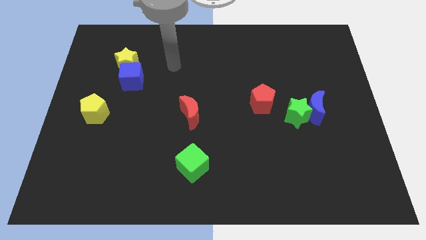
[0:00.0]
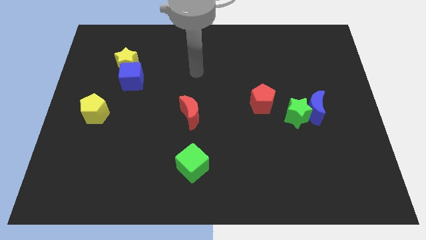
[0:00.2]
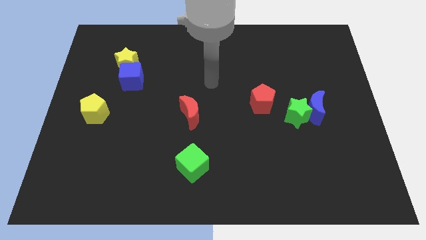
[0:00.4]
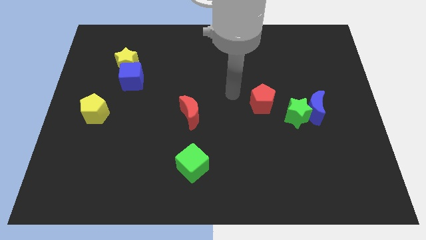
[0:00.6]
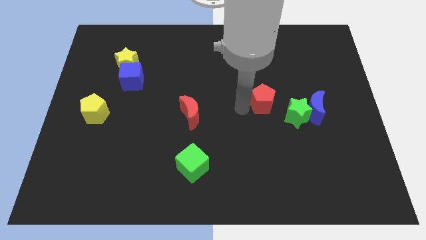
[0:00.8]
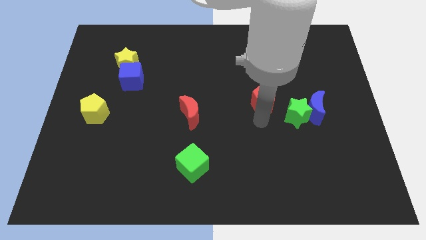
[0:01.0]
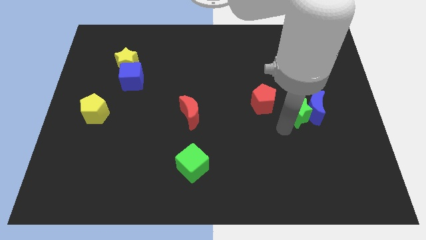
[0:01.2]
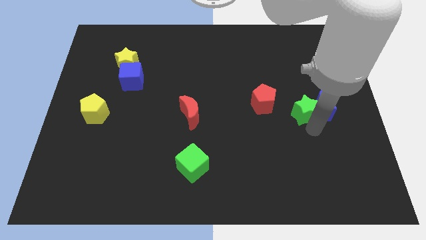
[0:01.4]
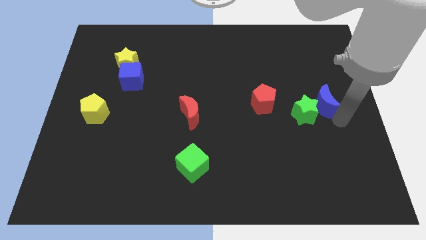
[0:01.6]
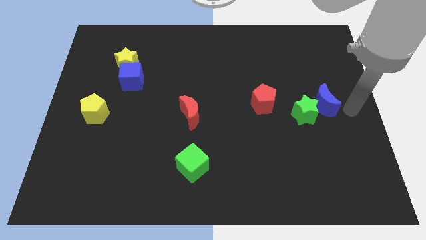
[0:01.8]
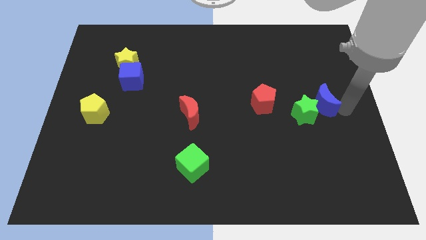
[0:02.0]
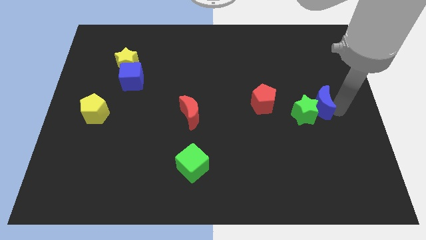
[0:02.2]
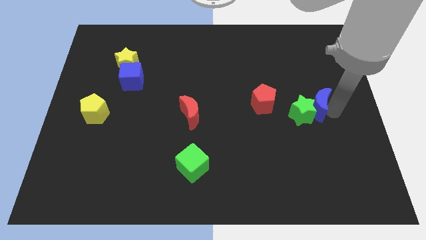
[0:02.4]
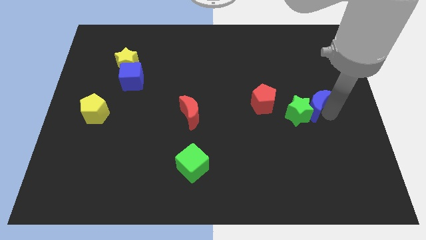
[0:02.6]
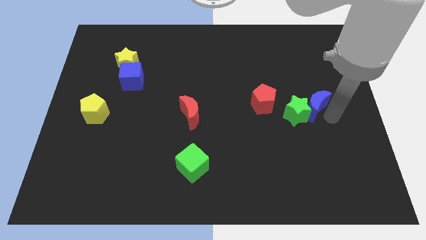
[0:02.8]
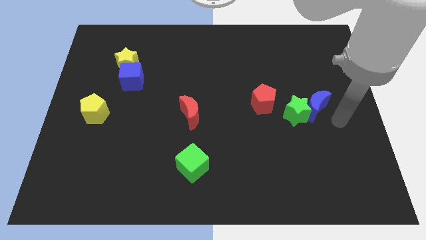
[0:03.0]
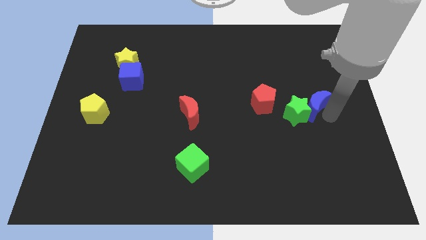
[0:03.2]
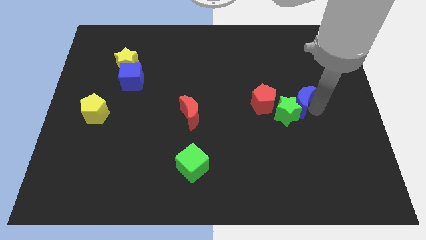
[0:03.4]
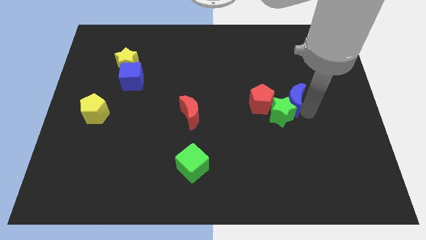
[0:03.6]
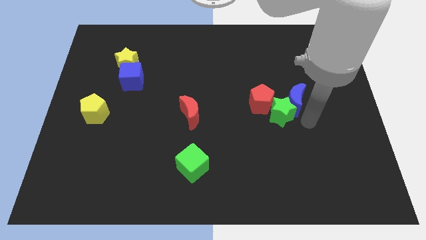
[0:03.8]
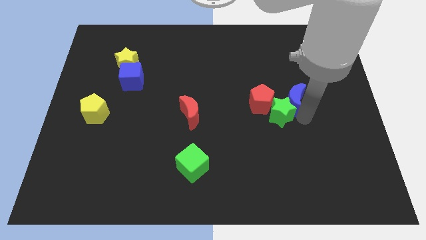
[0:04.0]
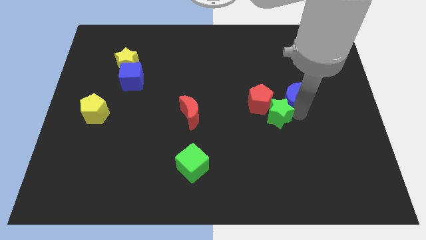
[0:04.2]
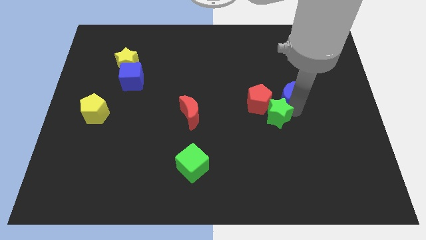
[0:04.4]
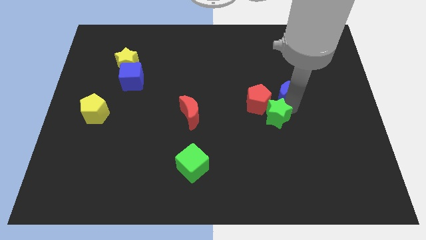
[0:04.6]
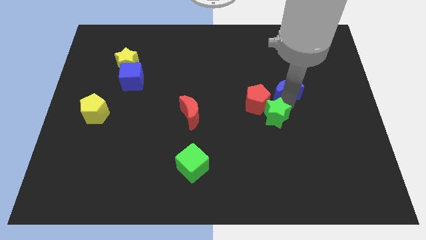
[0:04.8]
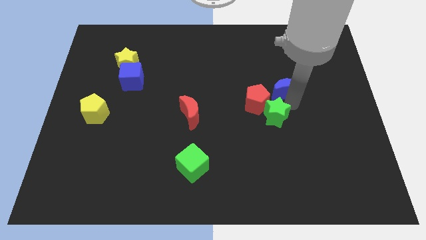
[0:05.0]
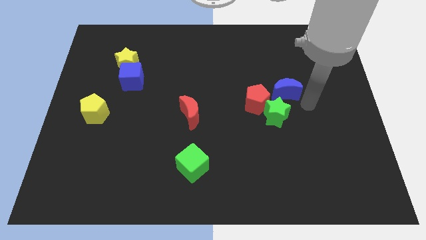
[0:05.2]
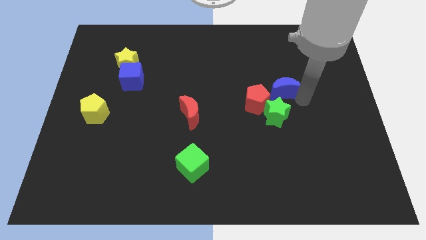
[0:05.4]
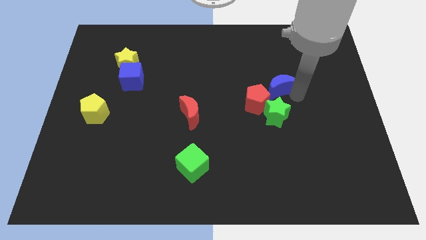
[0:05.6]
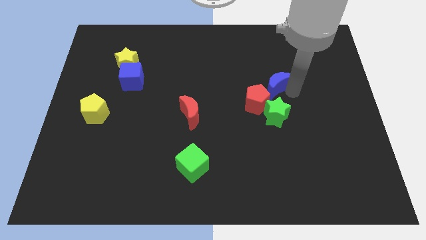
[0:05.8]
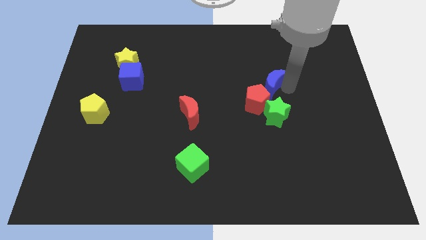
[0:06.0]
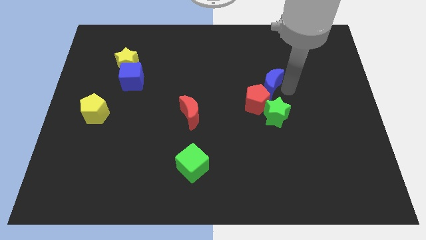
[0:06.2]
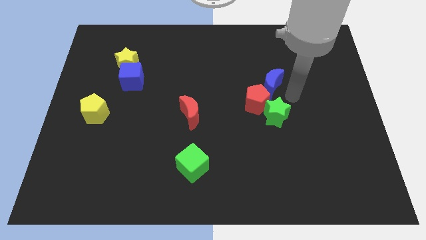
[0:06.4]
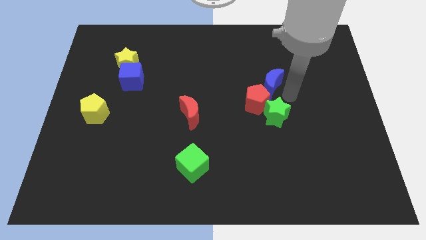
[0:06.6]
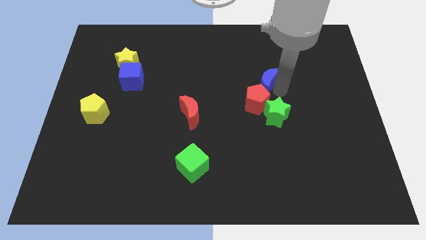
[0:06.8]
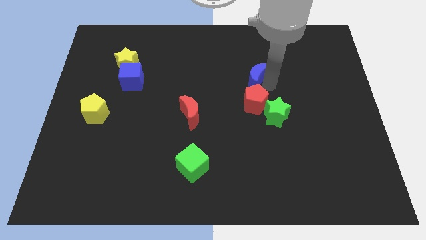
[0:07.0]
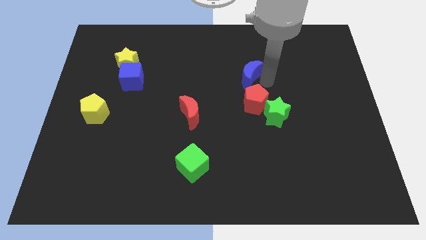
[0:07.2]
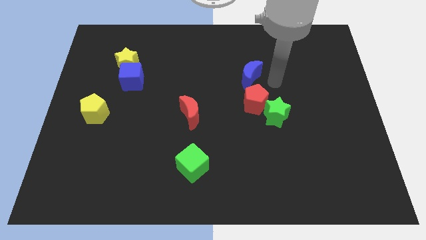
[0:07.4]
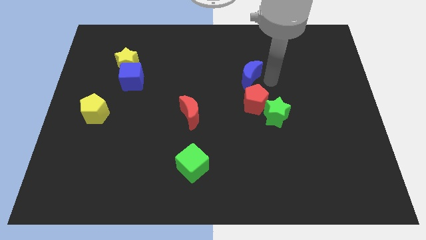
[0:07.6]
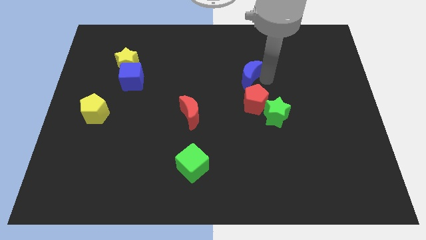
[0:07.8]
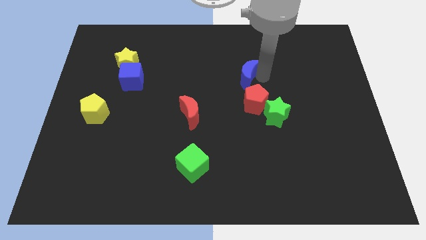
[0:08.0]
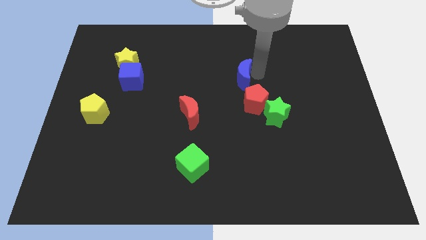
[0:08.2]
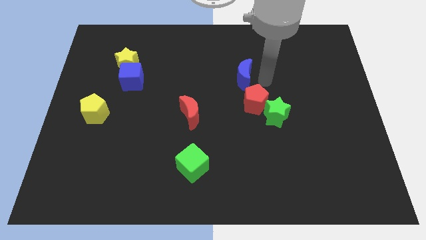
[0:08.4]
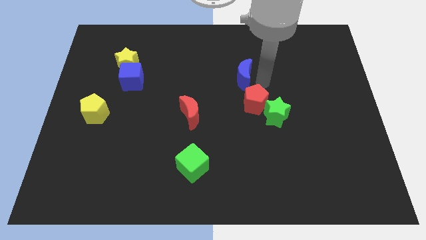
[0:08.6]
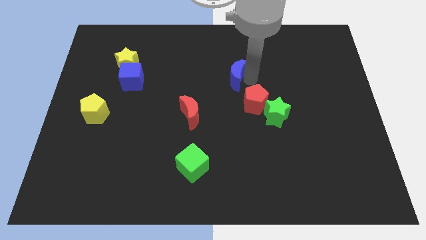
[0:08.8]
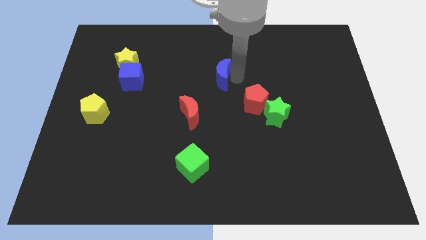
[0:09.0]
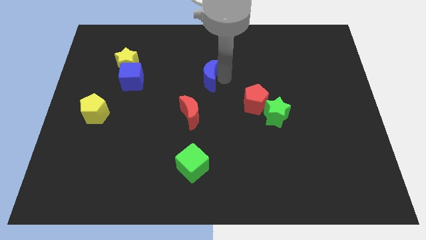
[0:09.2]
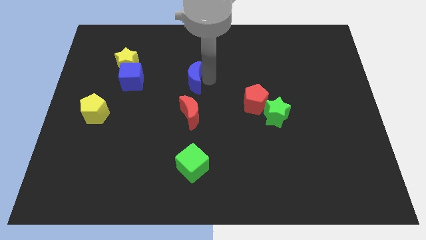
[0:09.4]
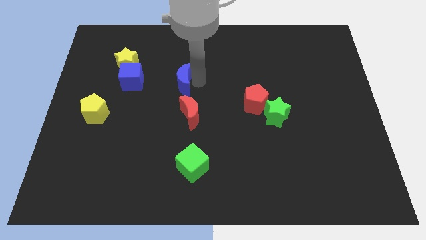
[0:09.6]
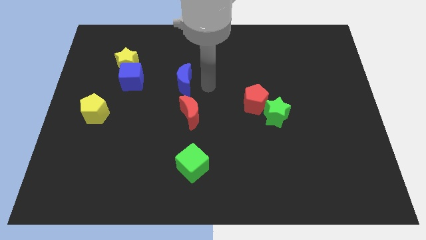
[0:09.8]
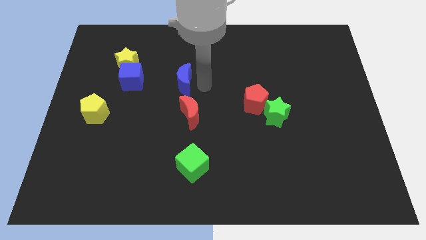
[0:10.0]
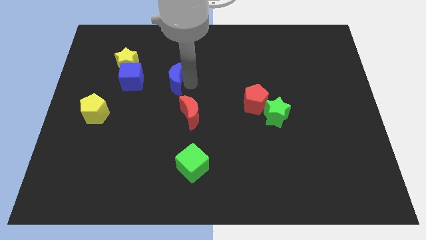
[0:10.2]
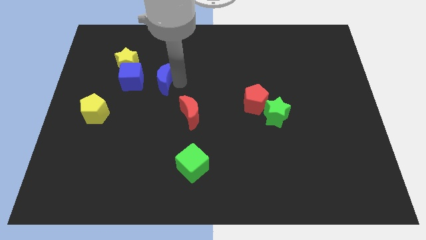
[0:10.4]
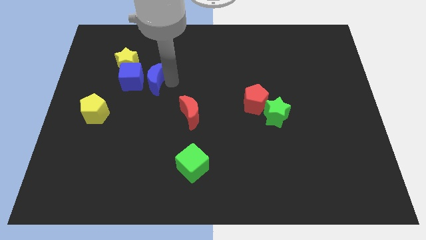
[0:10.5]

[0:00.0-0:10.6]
push the blue moon towards the blue cube

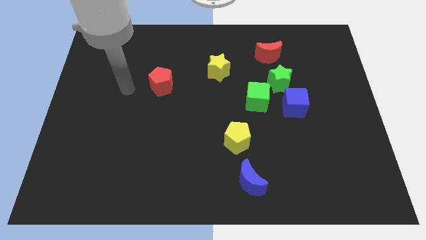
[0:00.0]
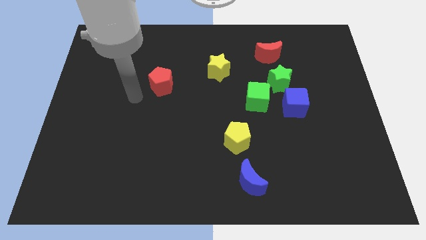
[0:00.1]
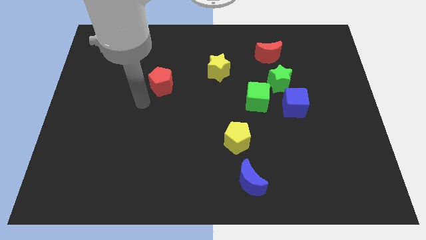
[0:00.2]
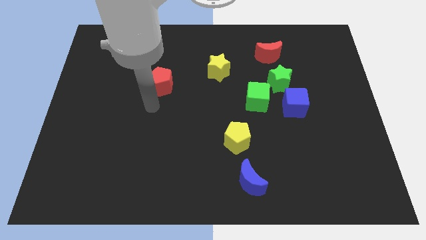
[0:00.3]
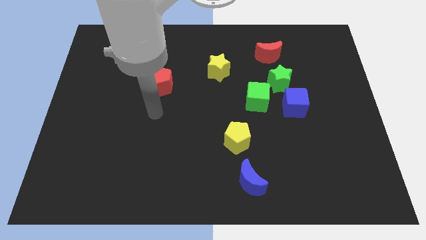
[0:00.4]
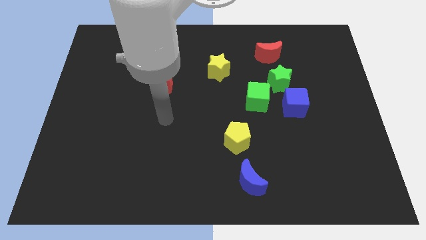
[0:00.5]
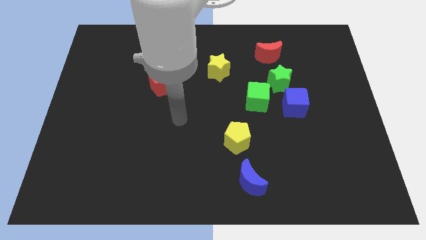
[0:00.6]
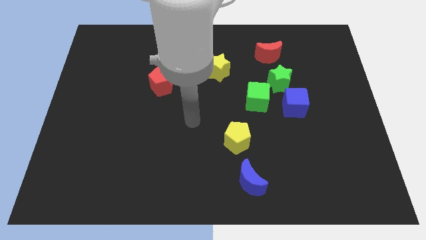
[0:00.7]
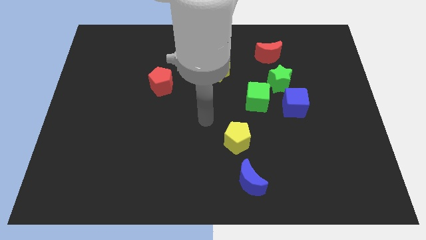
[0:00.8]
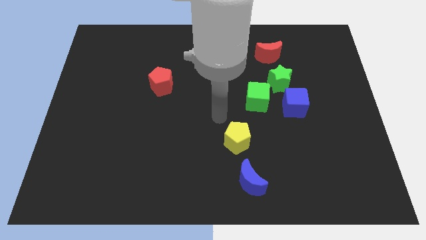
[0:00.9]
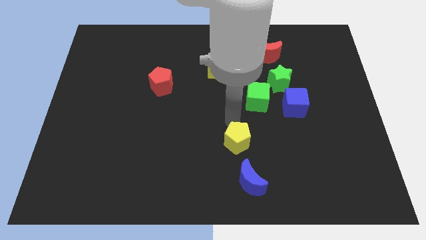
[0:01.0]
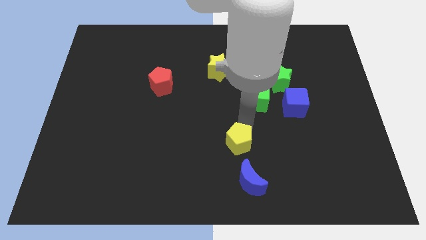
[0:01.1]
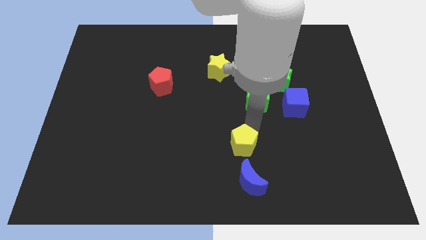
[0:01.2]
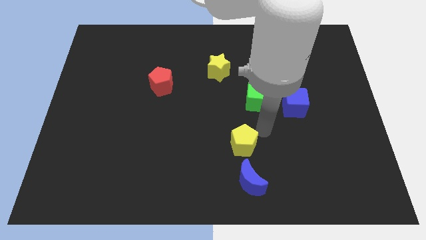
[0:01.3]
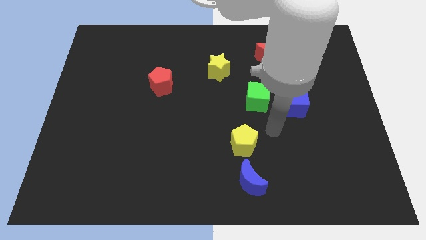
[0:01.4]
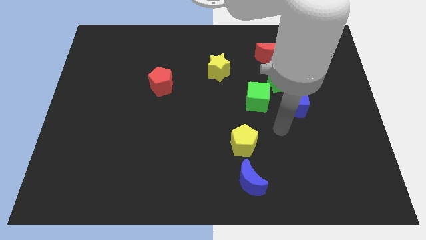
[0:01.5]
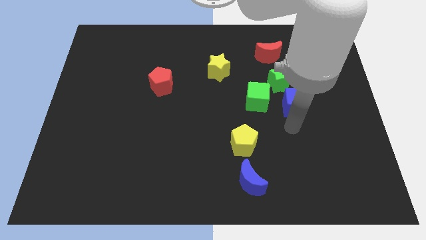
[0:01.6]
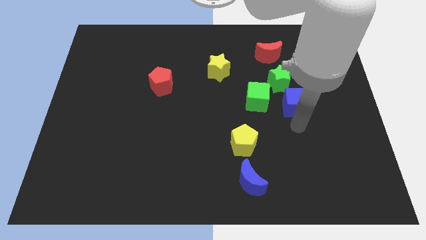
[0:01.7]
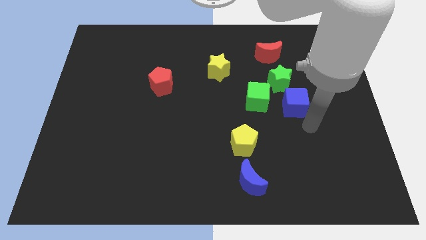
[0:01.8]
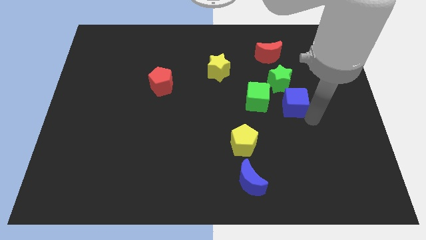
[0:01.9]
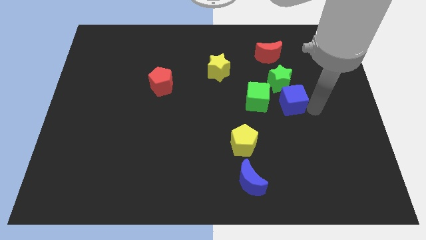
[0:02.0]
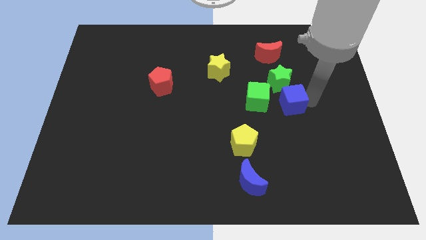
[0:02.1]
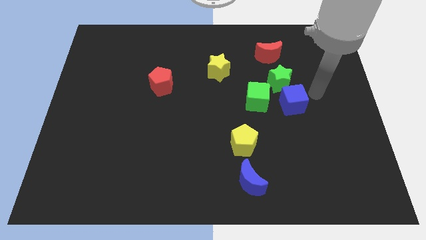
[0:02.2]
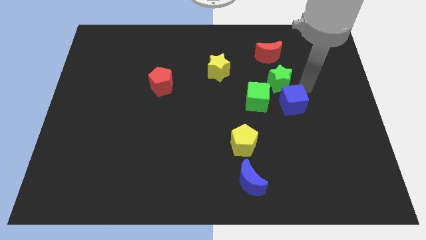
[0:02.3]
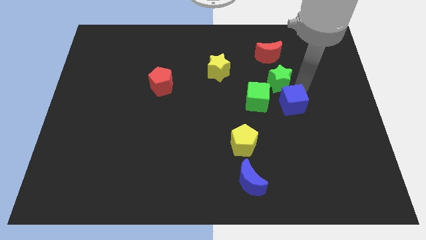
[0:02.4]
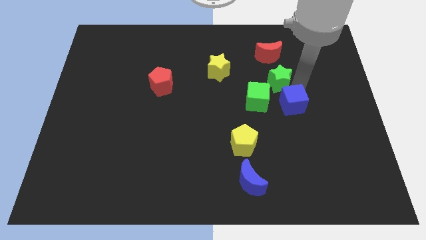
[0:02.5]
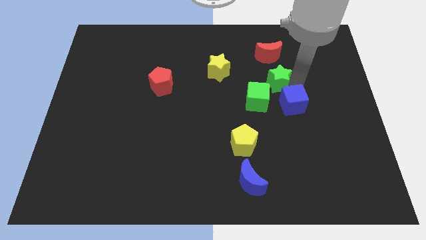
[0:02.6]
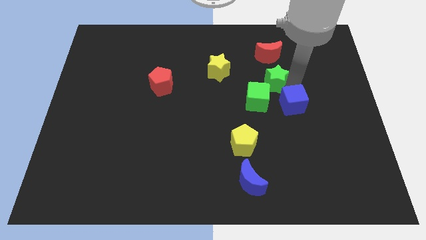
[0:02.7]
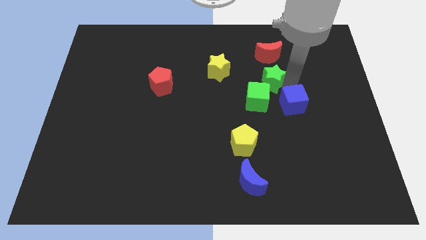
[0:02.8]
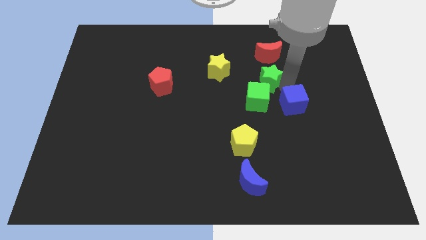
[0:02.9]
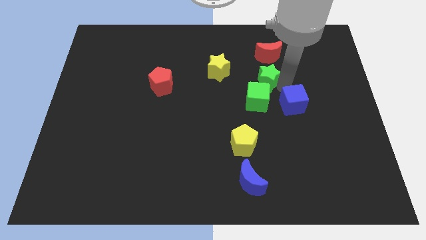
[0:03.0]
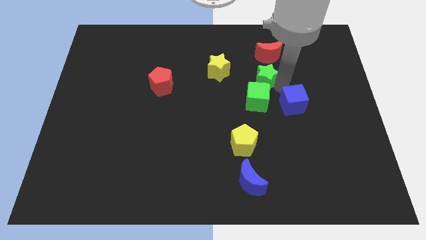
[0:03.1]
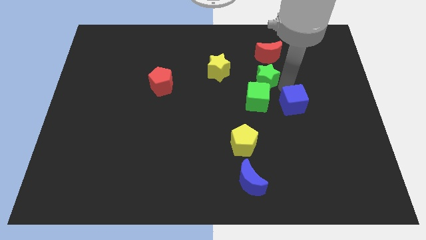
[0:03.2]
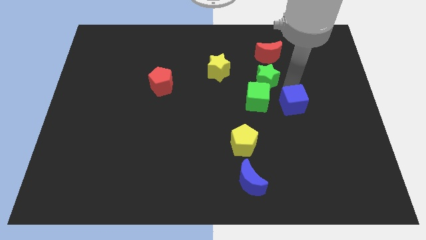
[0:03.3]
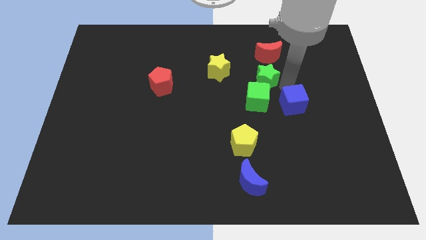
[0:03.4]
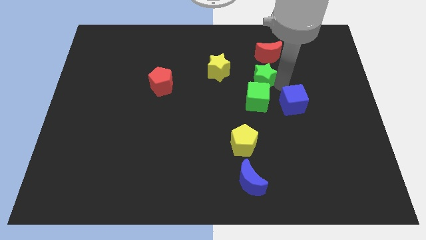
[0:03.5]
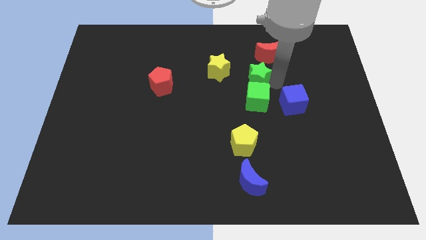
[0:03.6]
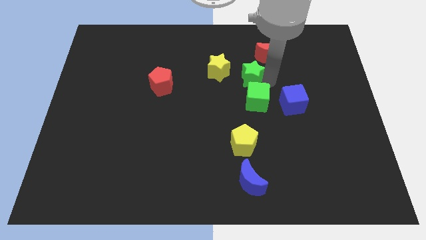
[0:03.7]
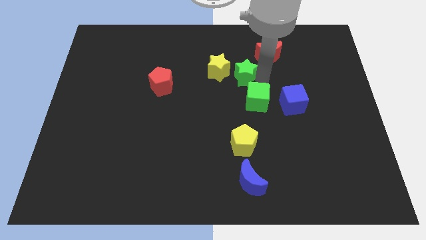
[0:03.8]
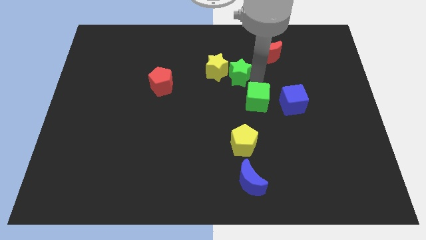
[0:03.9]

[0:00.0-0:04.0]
put the green star close to the yellow star
